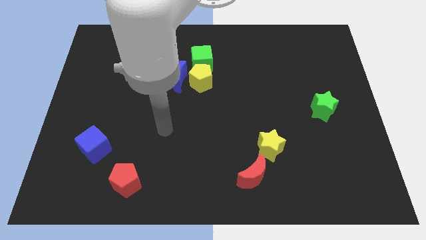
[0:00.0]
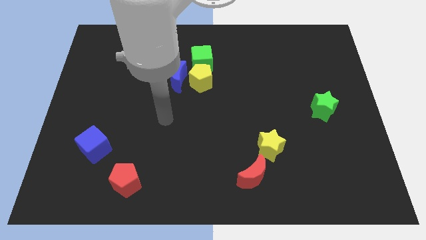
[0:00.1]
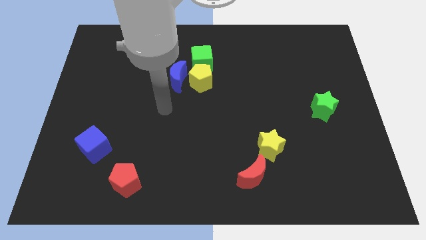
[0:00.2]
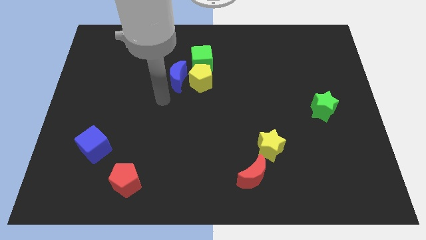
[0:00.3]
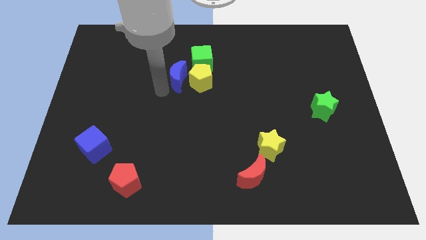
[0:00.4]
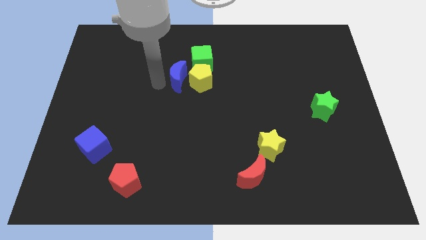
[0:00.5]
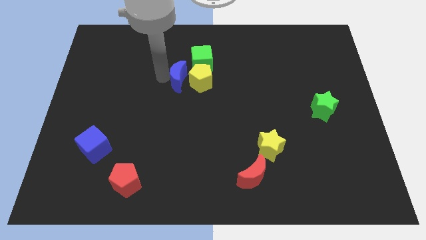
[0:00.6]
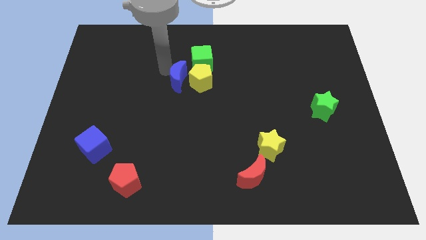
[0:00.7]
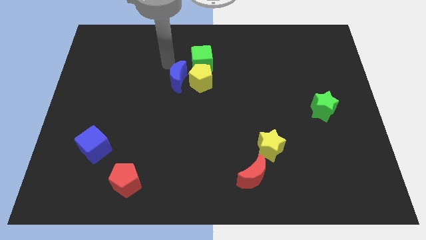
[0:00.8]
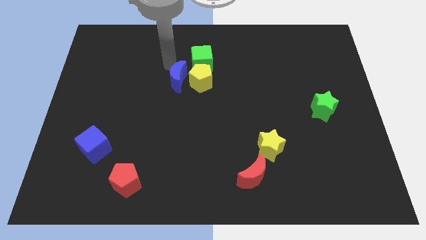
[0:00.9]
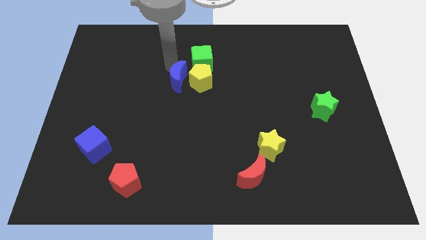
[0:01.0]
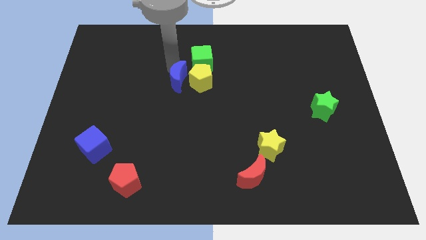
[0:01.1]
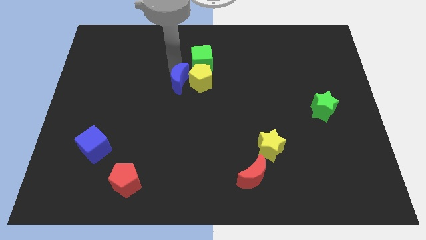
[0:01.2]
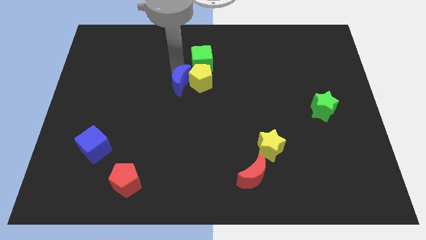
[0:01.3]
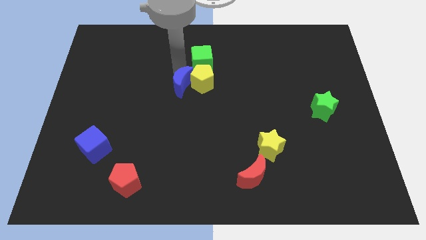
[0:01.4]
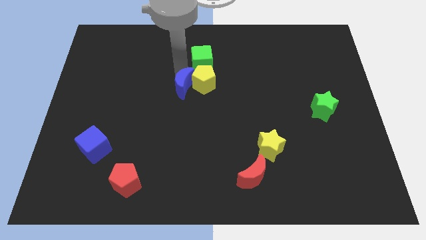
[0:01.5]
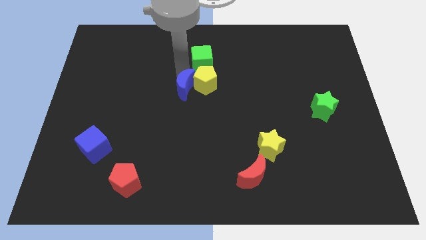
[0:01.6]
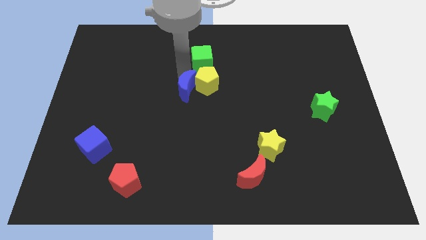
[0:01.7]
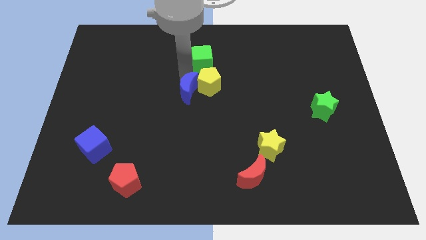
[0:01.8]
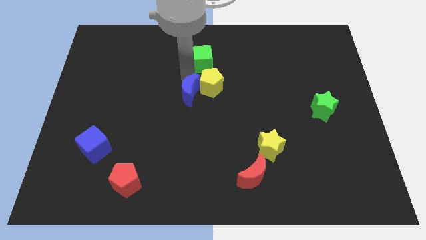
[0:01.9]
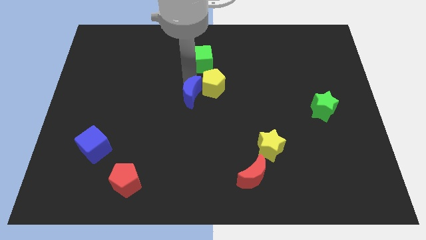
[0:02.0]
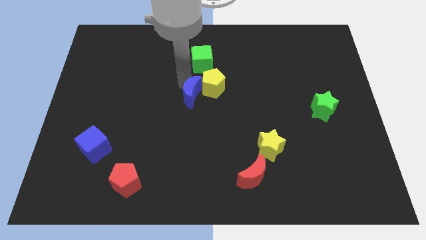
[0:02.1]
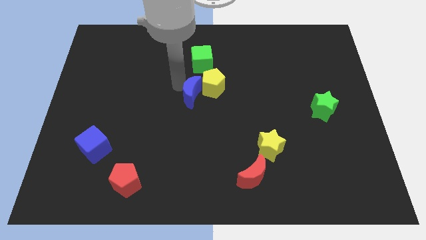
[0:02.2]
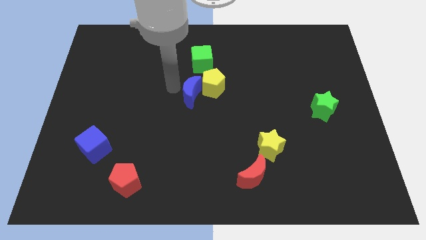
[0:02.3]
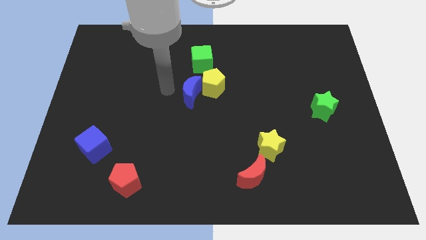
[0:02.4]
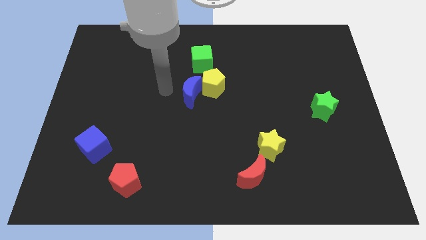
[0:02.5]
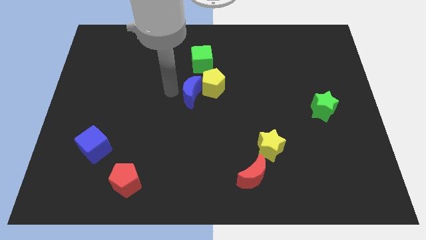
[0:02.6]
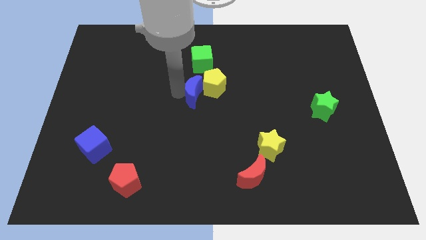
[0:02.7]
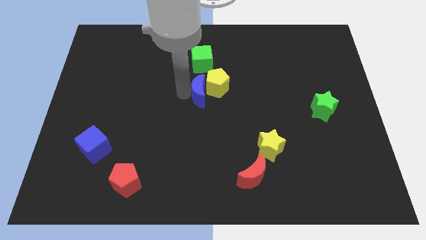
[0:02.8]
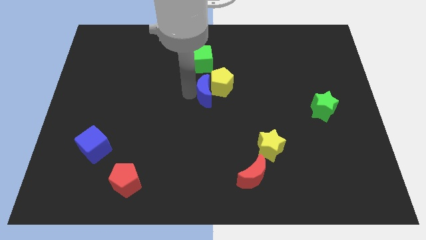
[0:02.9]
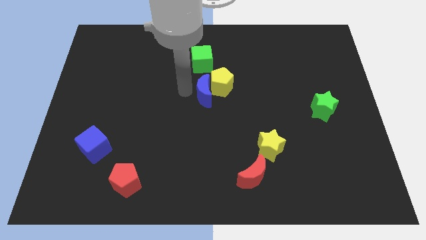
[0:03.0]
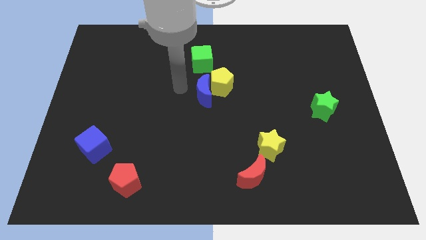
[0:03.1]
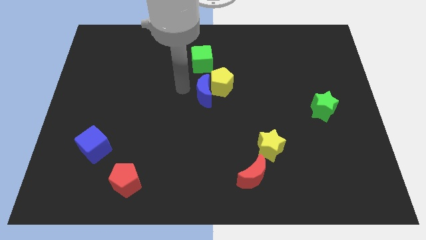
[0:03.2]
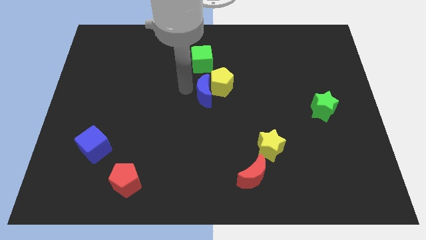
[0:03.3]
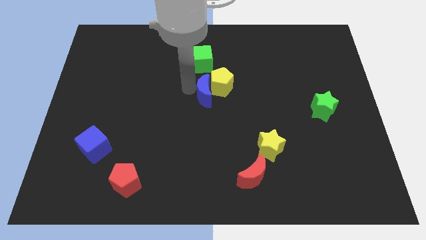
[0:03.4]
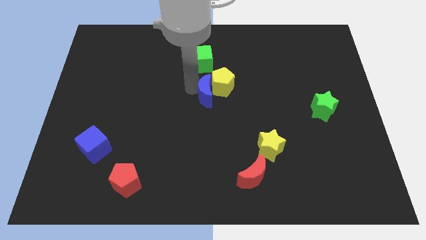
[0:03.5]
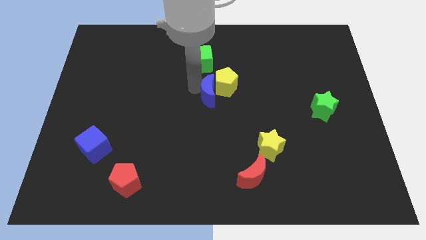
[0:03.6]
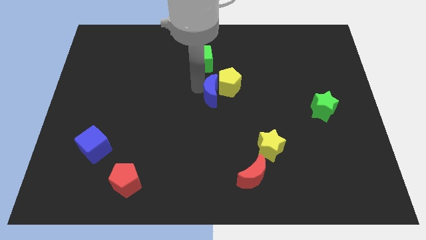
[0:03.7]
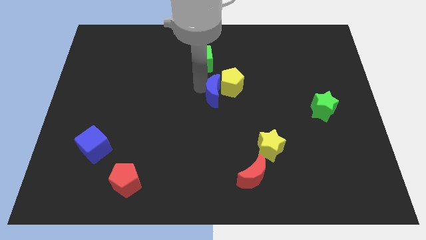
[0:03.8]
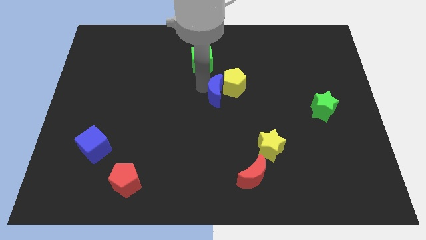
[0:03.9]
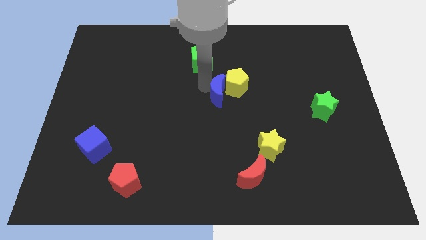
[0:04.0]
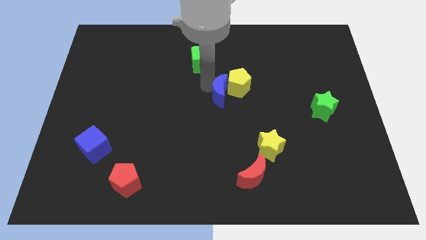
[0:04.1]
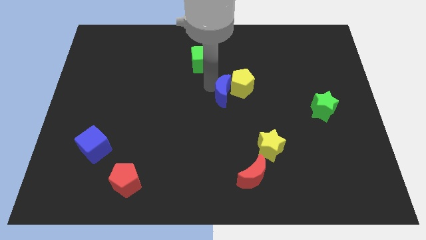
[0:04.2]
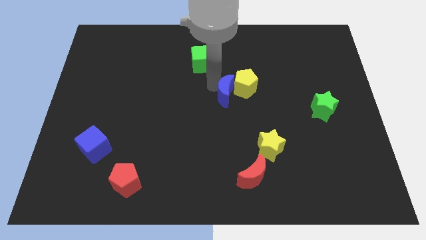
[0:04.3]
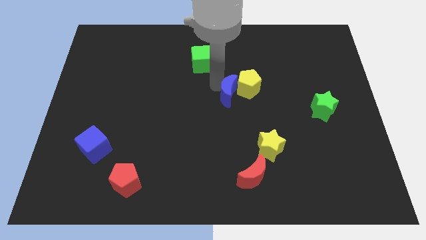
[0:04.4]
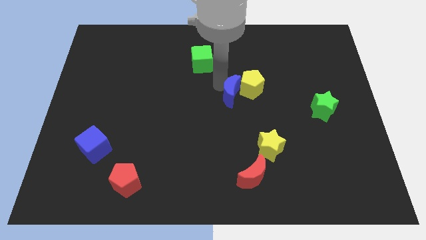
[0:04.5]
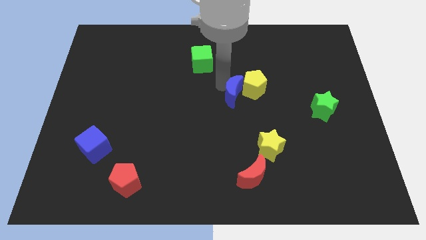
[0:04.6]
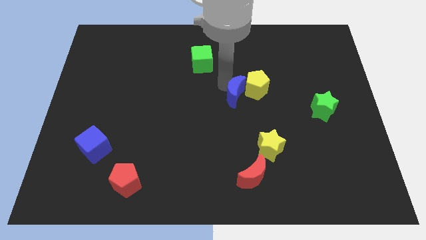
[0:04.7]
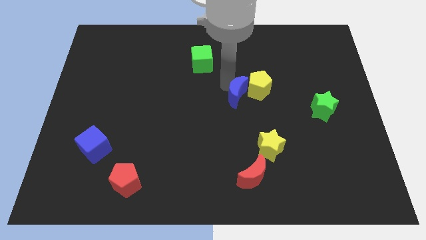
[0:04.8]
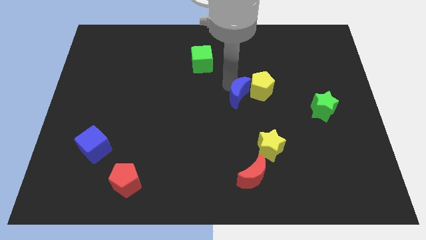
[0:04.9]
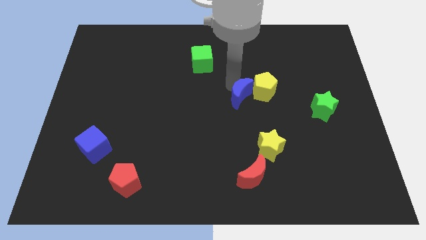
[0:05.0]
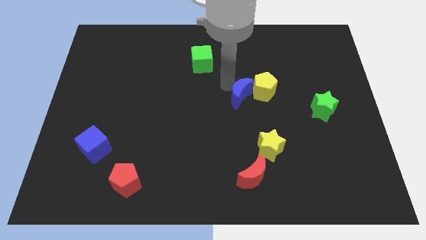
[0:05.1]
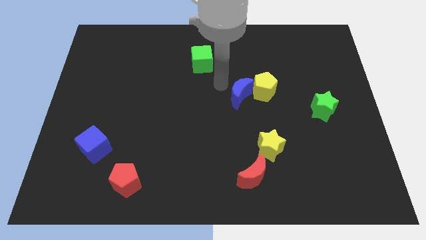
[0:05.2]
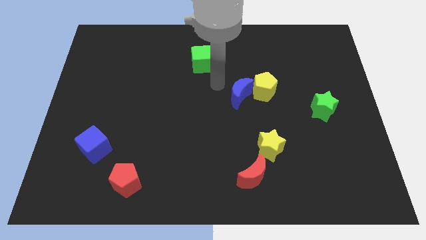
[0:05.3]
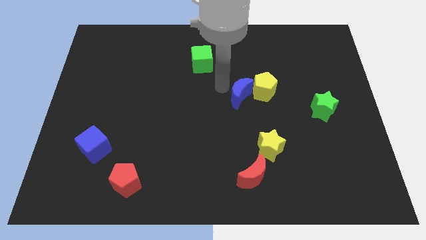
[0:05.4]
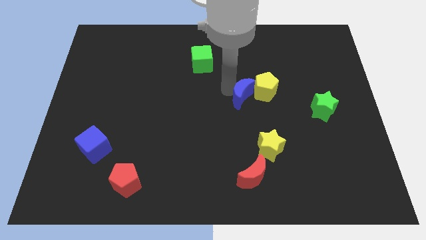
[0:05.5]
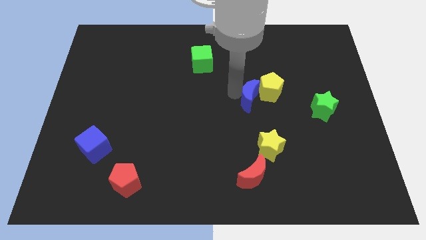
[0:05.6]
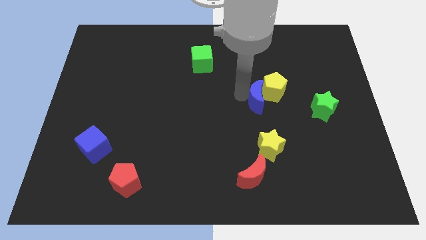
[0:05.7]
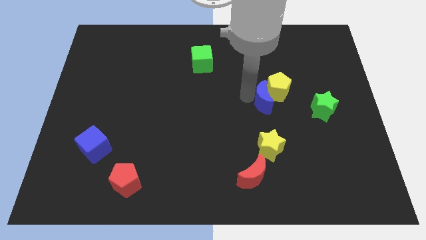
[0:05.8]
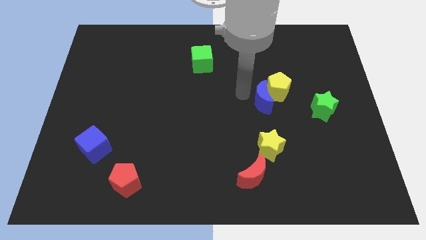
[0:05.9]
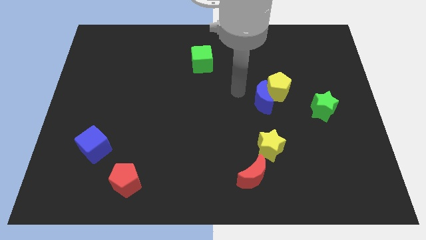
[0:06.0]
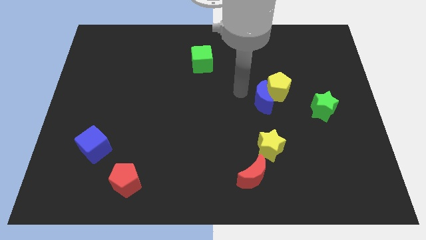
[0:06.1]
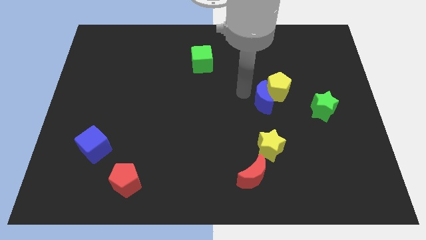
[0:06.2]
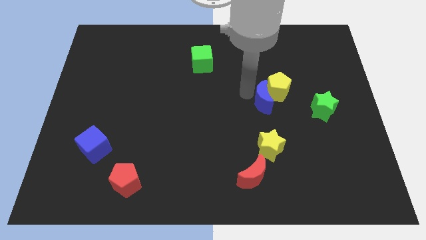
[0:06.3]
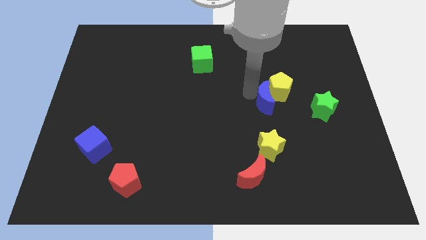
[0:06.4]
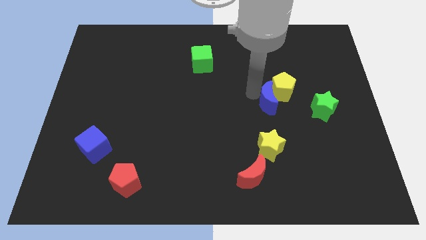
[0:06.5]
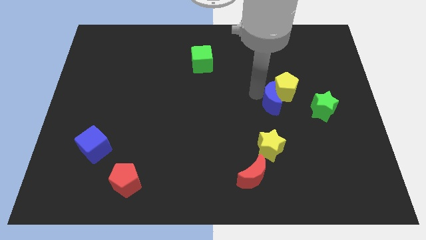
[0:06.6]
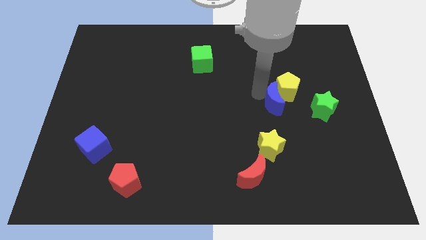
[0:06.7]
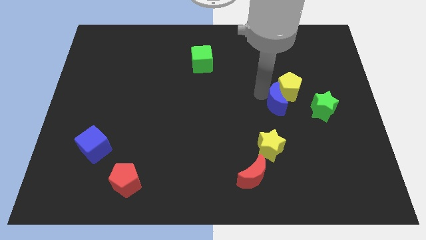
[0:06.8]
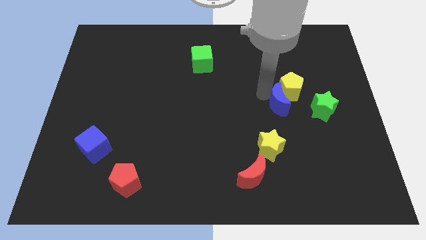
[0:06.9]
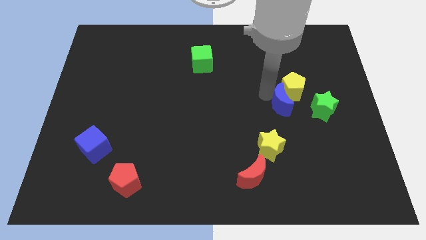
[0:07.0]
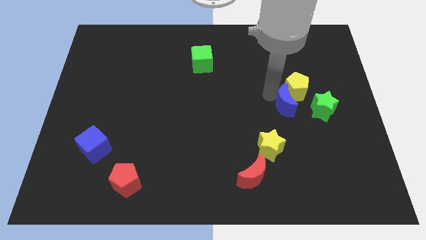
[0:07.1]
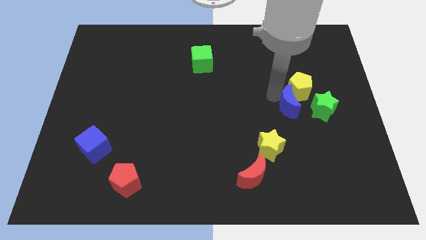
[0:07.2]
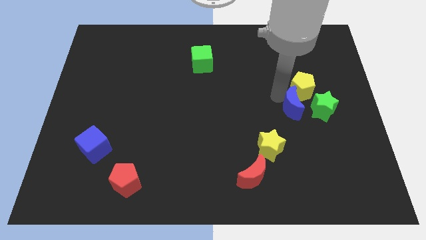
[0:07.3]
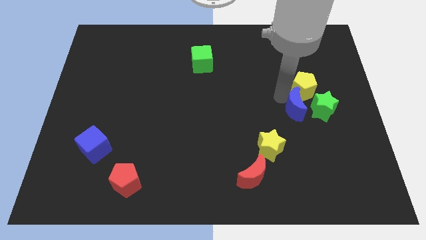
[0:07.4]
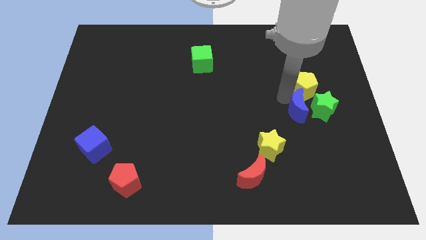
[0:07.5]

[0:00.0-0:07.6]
put the blue moon next to the green star
